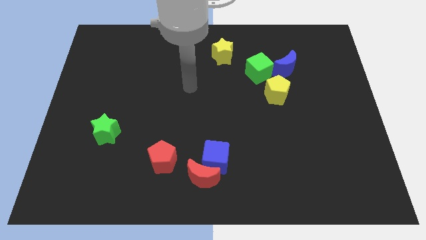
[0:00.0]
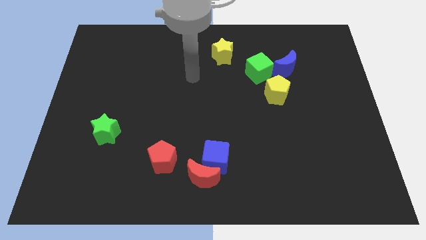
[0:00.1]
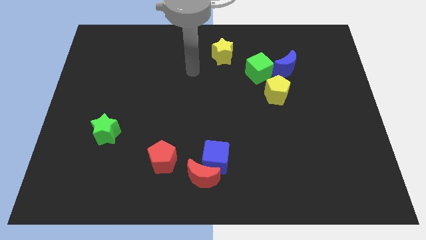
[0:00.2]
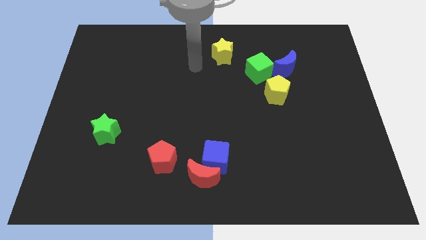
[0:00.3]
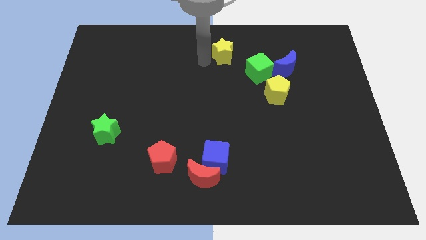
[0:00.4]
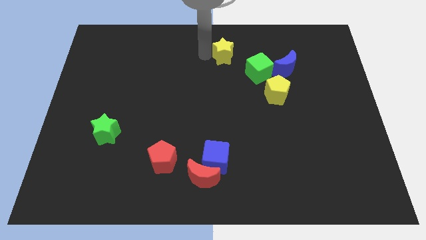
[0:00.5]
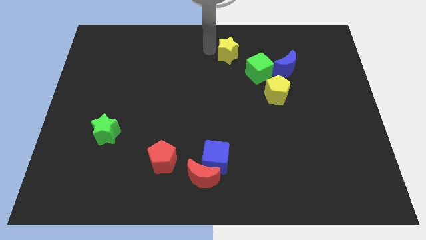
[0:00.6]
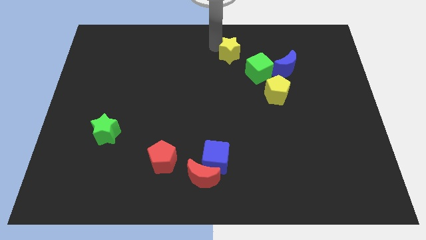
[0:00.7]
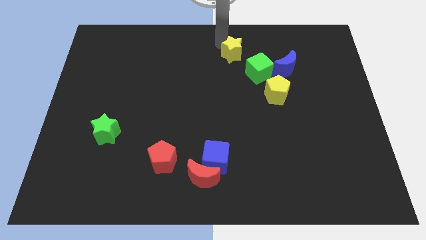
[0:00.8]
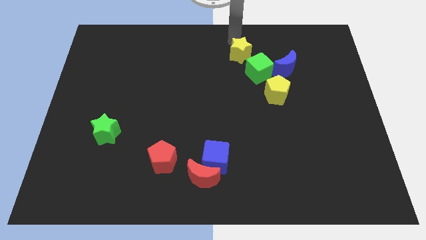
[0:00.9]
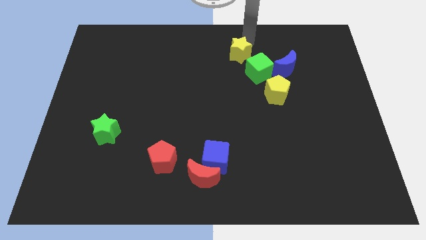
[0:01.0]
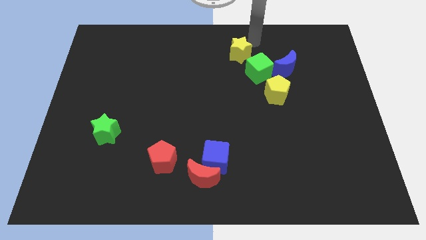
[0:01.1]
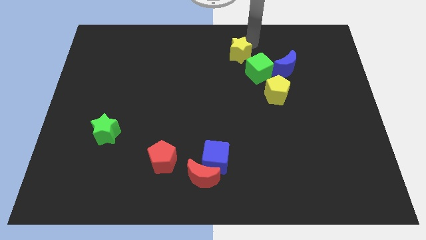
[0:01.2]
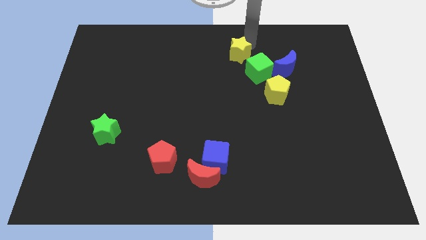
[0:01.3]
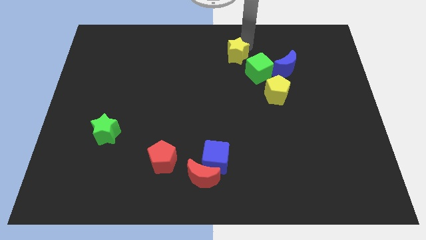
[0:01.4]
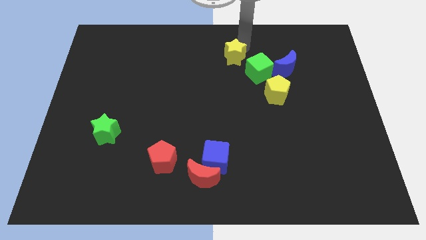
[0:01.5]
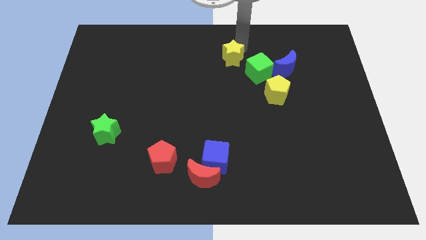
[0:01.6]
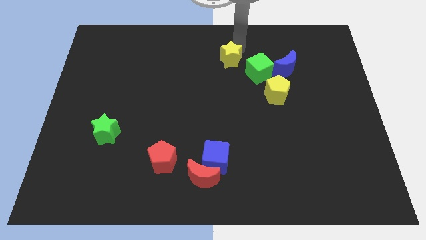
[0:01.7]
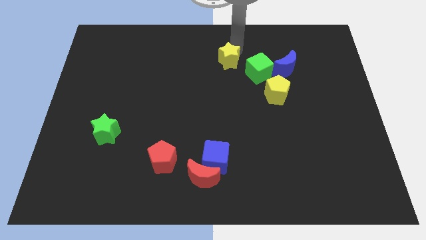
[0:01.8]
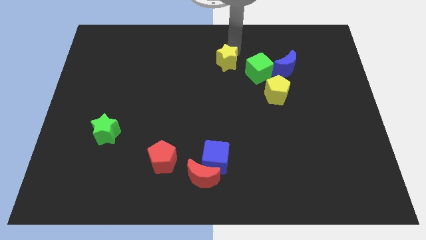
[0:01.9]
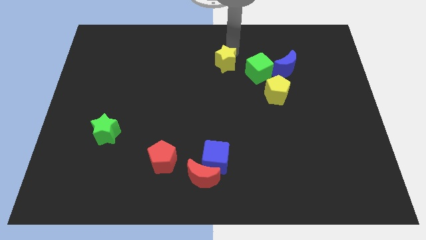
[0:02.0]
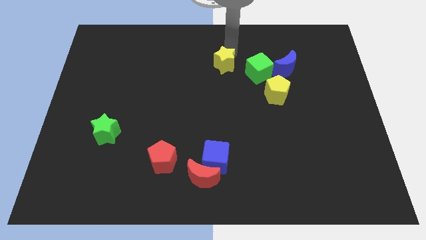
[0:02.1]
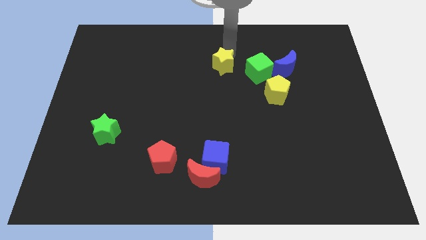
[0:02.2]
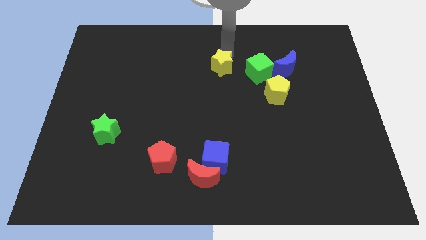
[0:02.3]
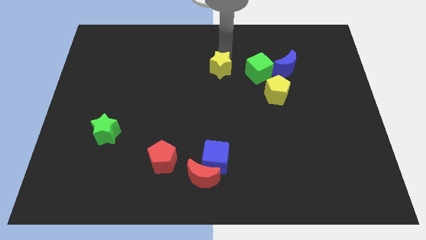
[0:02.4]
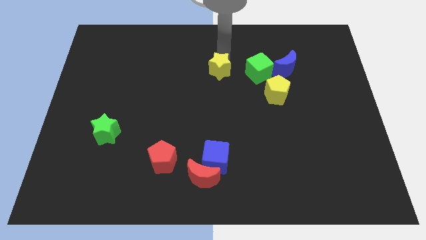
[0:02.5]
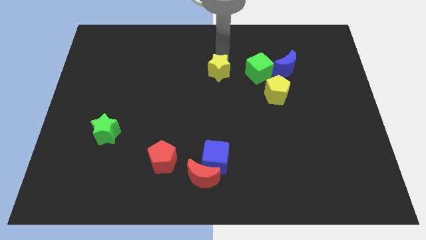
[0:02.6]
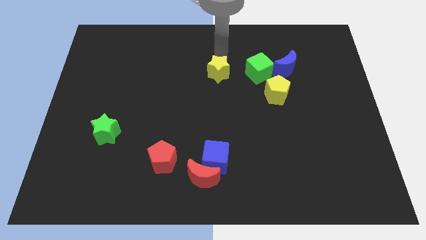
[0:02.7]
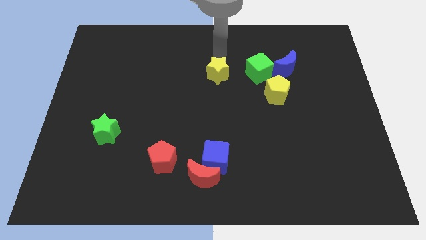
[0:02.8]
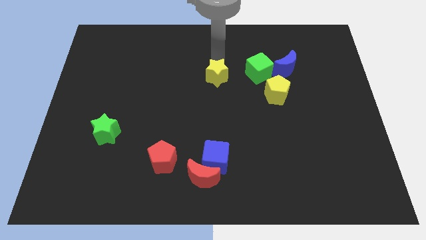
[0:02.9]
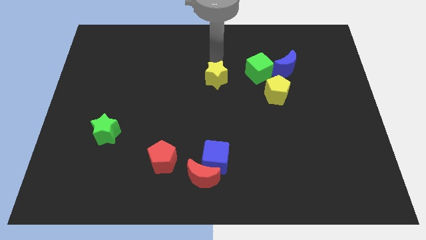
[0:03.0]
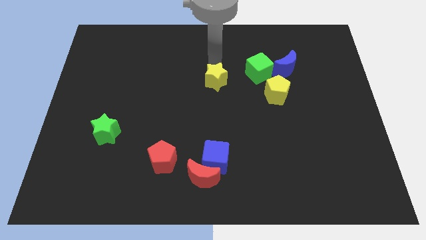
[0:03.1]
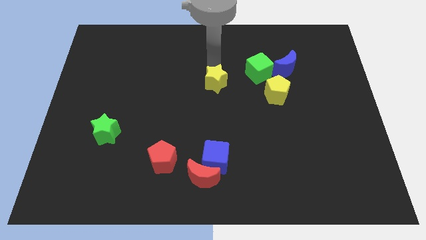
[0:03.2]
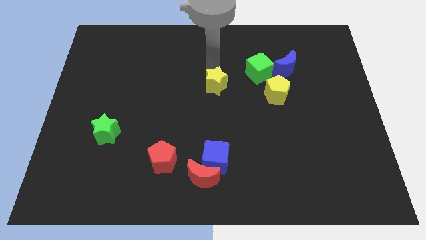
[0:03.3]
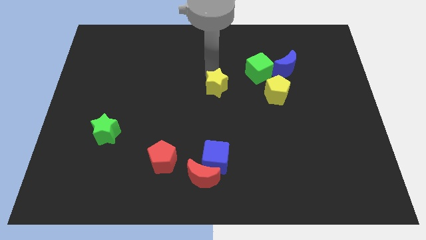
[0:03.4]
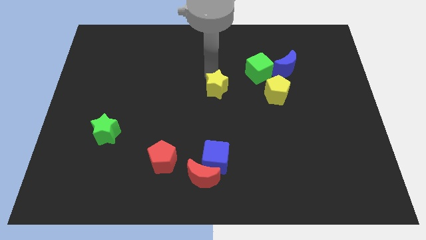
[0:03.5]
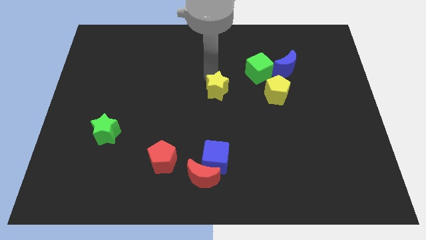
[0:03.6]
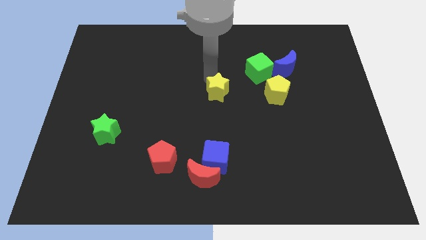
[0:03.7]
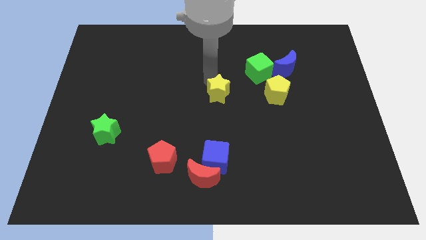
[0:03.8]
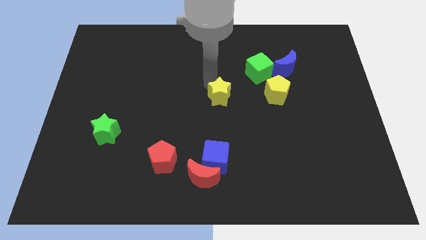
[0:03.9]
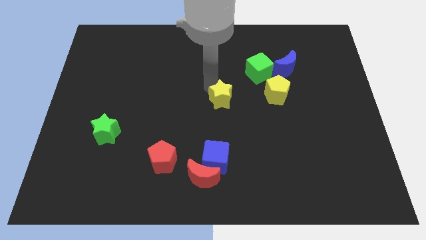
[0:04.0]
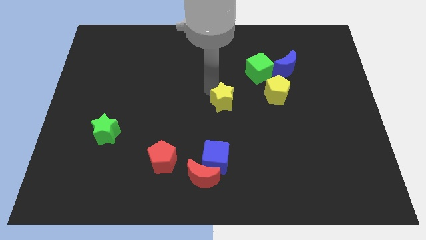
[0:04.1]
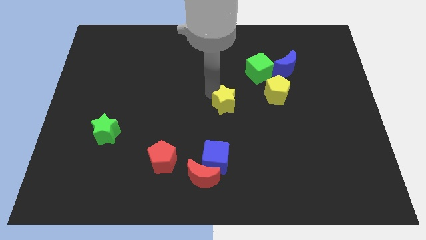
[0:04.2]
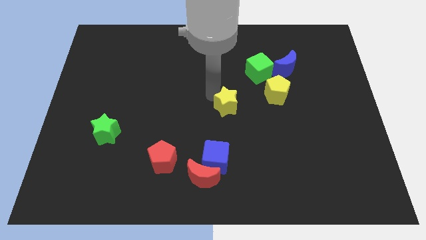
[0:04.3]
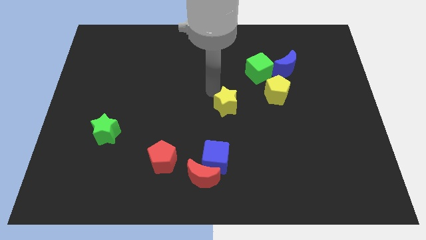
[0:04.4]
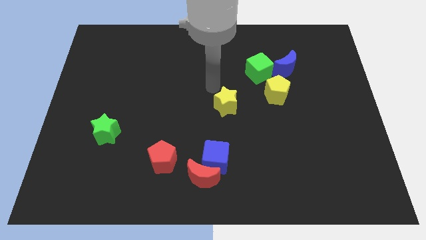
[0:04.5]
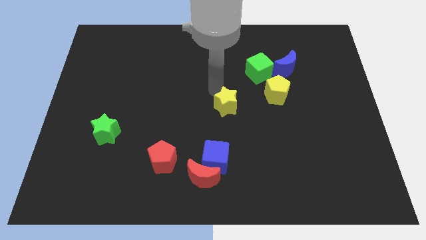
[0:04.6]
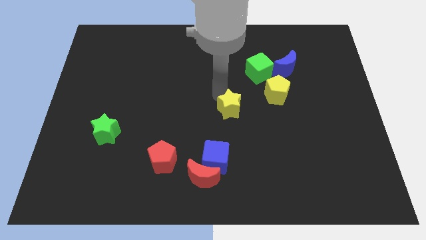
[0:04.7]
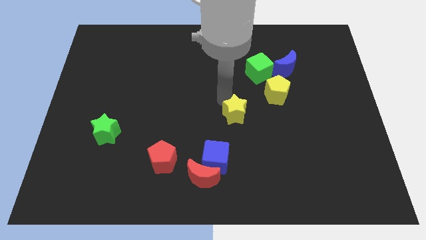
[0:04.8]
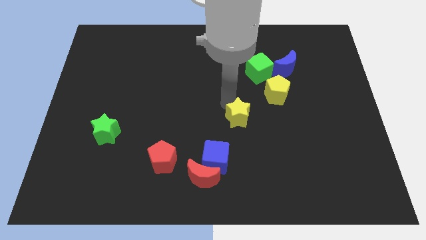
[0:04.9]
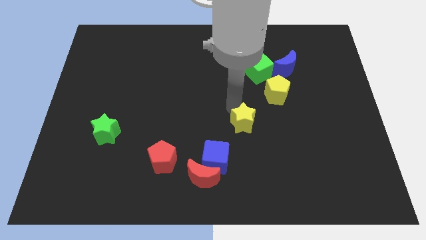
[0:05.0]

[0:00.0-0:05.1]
put the yellow star to the top right side of the blue cube

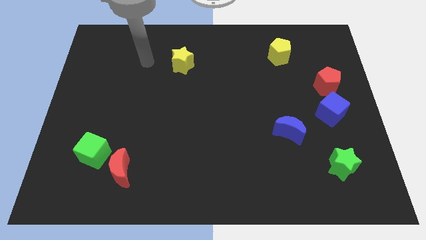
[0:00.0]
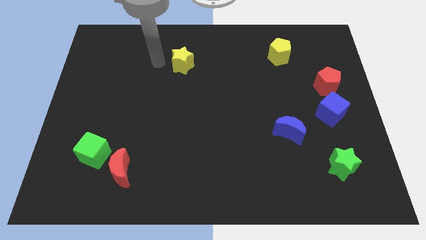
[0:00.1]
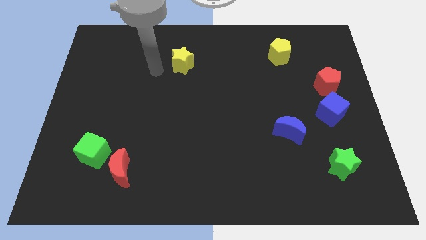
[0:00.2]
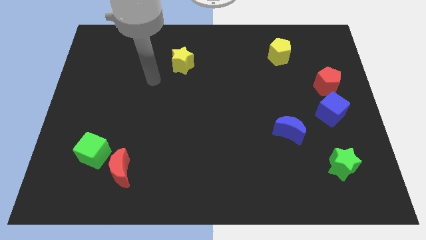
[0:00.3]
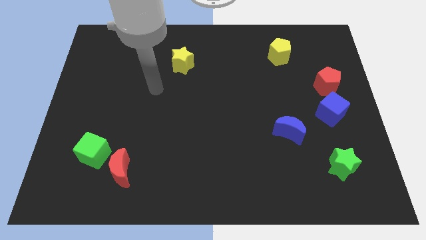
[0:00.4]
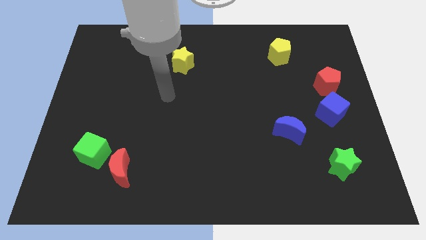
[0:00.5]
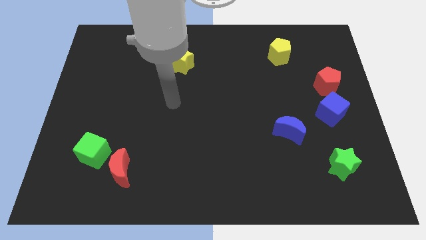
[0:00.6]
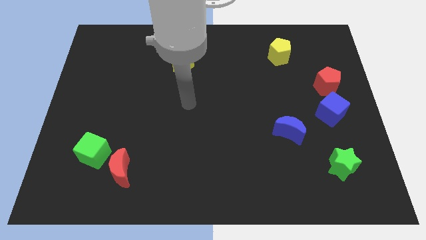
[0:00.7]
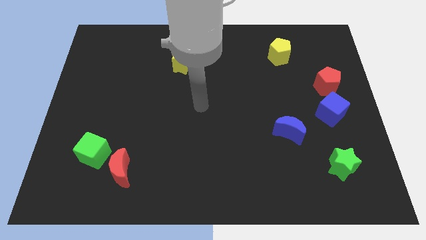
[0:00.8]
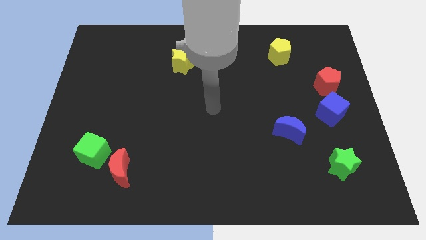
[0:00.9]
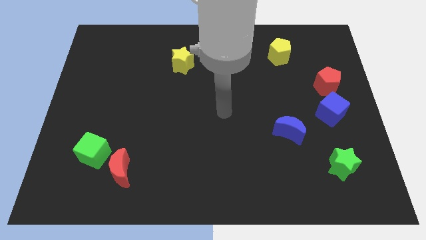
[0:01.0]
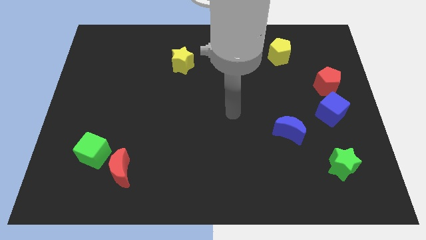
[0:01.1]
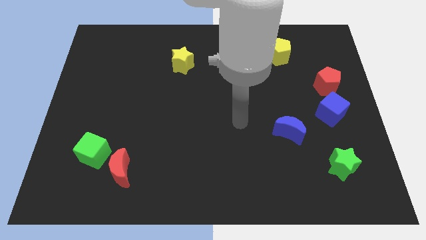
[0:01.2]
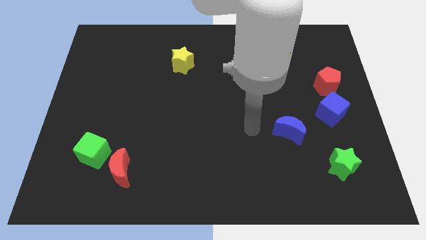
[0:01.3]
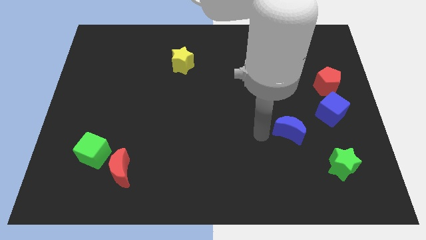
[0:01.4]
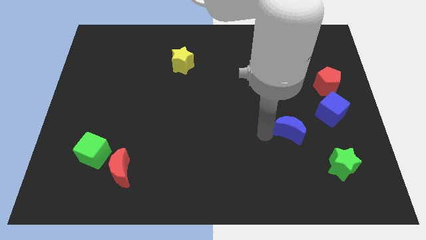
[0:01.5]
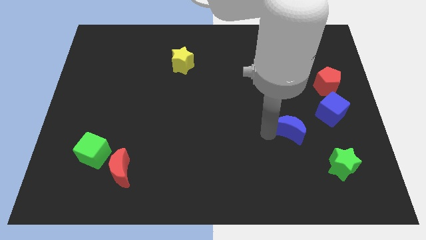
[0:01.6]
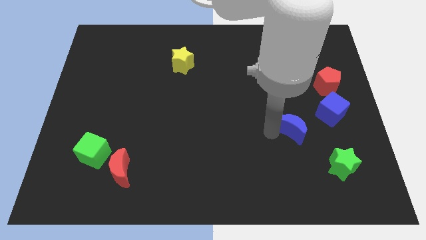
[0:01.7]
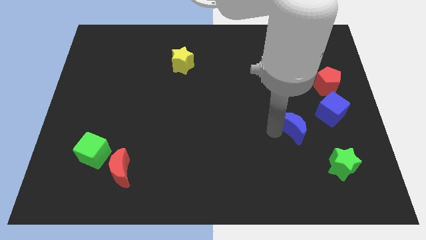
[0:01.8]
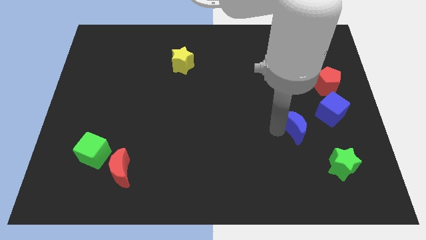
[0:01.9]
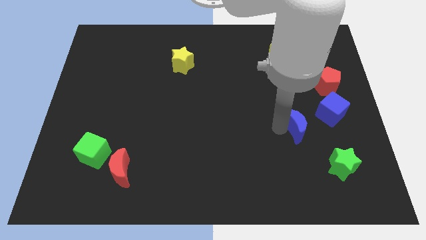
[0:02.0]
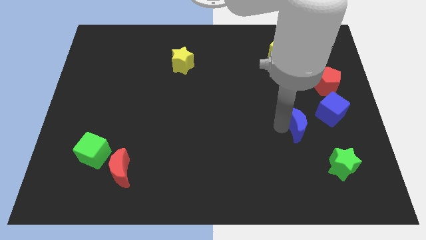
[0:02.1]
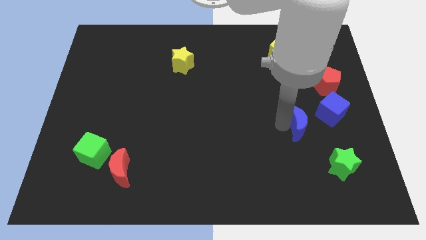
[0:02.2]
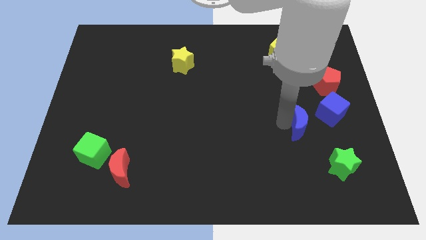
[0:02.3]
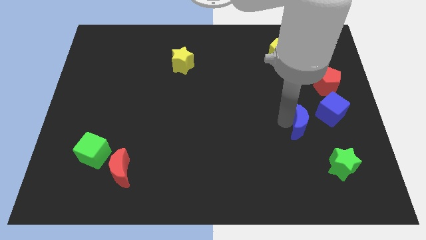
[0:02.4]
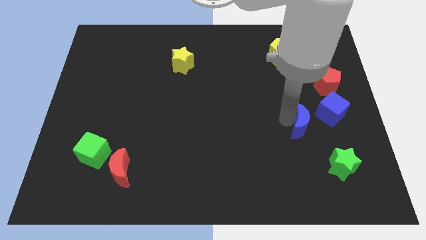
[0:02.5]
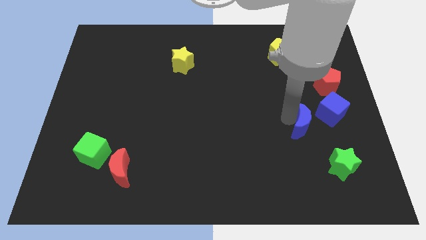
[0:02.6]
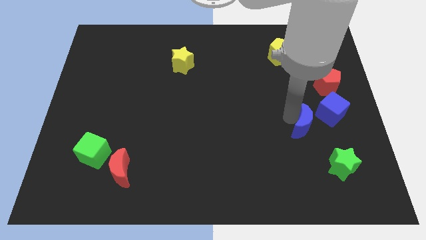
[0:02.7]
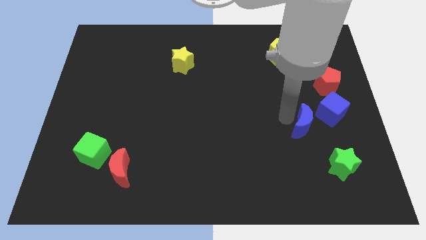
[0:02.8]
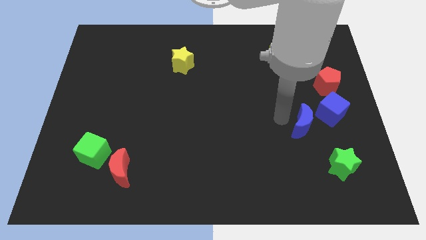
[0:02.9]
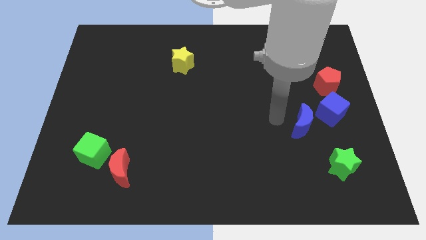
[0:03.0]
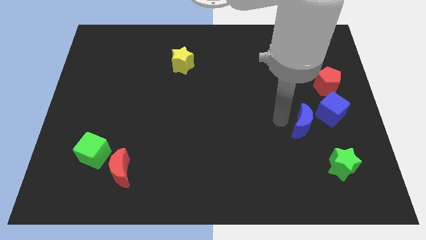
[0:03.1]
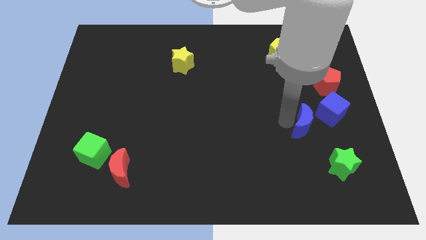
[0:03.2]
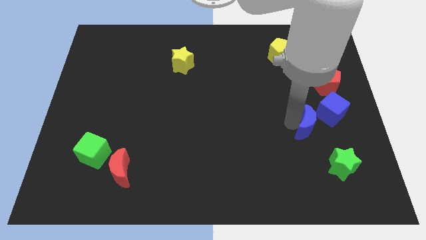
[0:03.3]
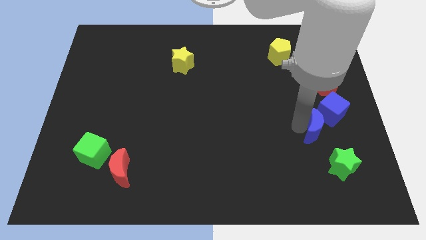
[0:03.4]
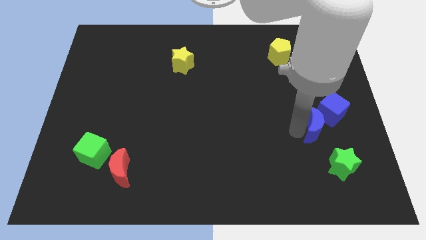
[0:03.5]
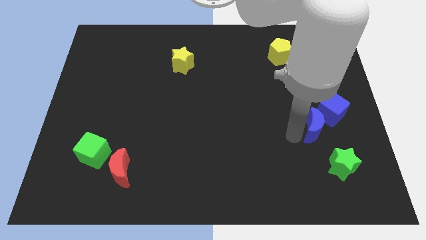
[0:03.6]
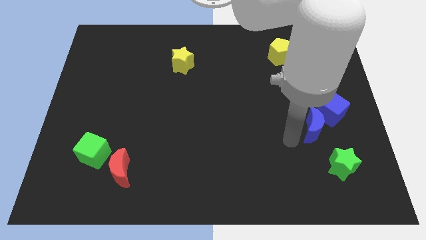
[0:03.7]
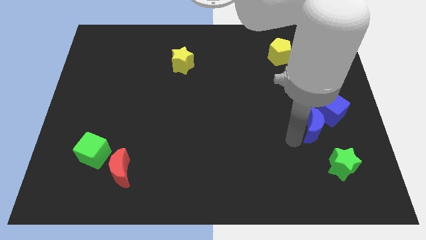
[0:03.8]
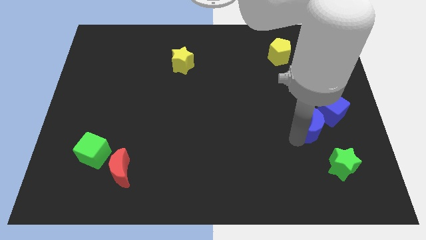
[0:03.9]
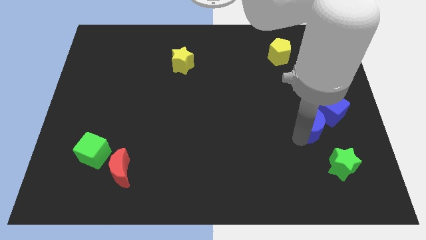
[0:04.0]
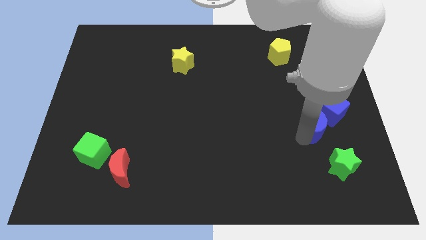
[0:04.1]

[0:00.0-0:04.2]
slide the blue moon below the red pentagon
